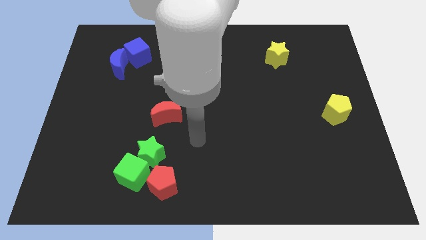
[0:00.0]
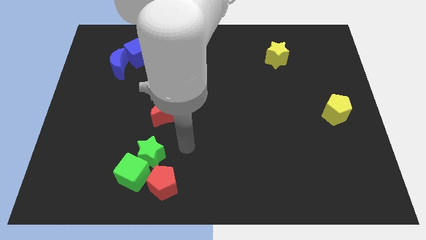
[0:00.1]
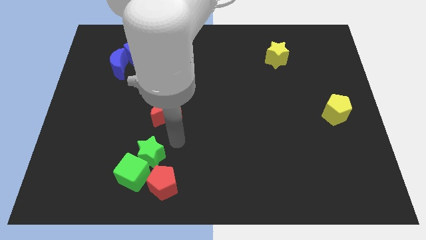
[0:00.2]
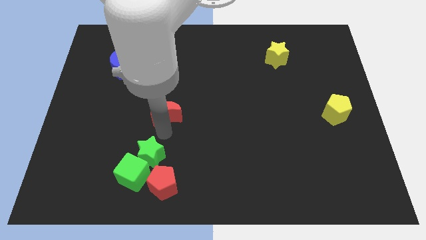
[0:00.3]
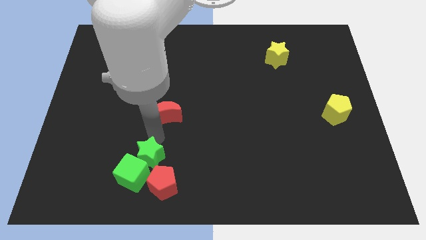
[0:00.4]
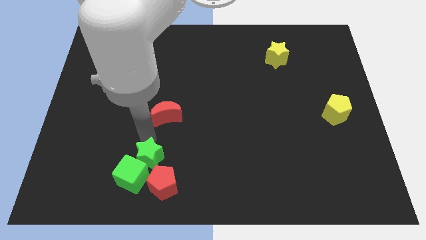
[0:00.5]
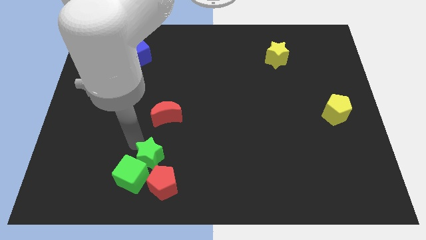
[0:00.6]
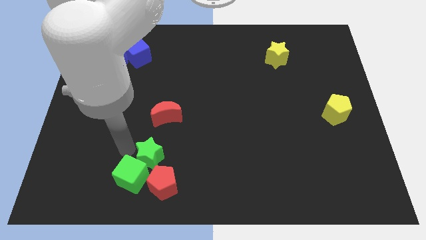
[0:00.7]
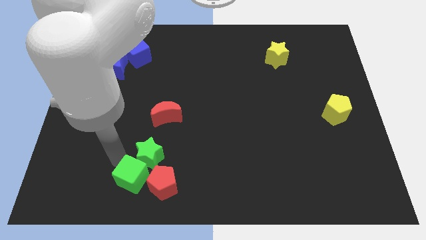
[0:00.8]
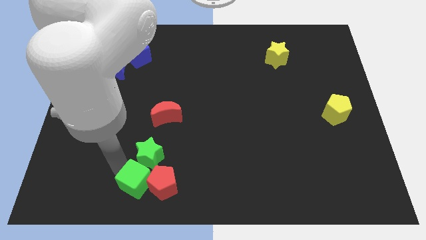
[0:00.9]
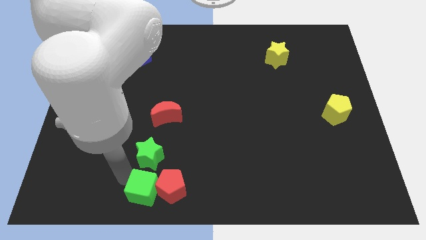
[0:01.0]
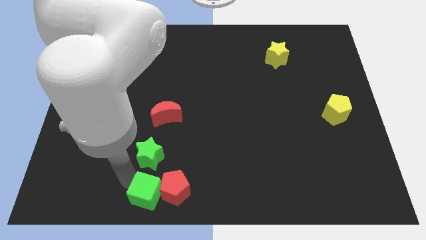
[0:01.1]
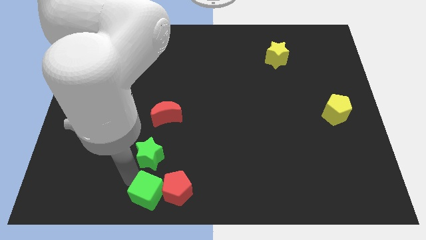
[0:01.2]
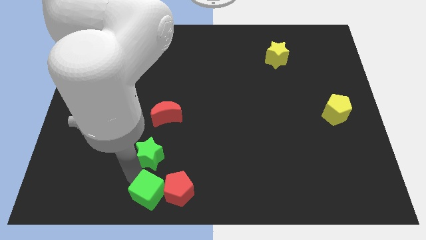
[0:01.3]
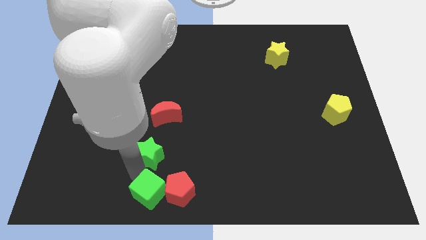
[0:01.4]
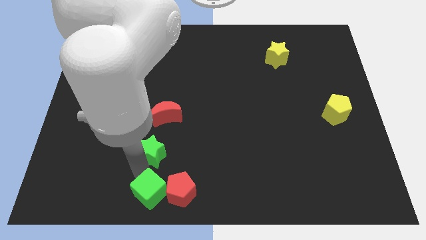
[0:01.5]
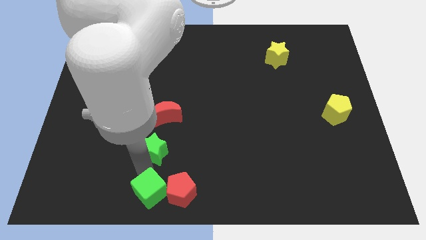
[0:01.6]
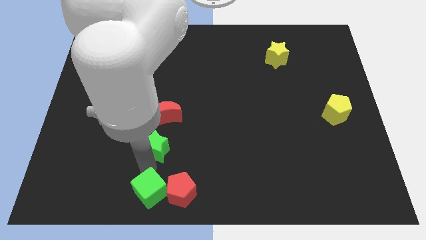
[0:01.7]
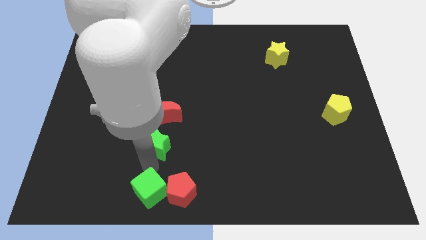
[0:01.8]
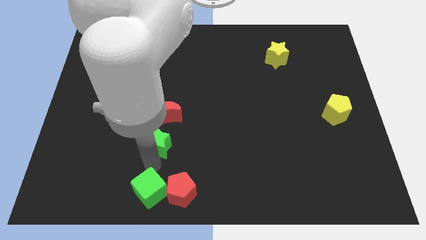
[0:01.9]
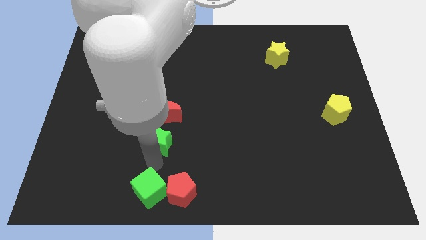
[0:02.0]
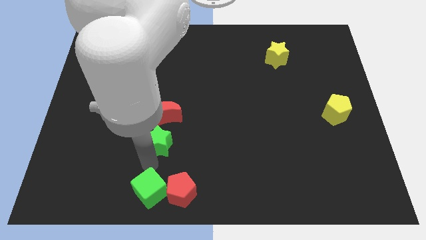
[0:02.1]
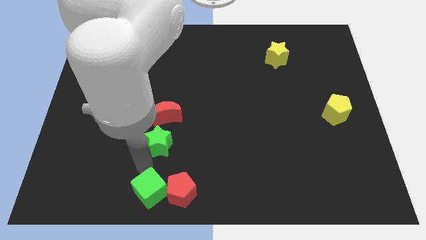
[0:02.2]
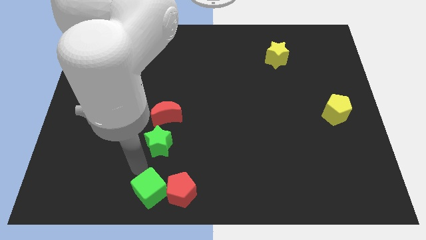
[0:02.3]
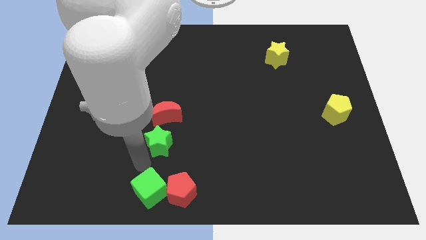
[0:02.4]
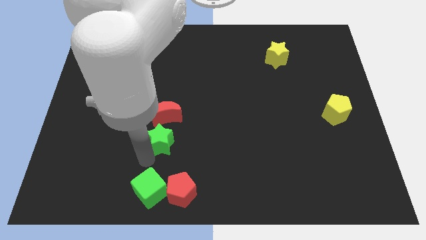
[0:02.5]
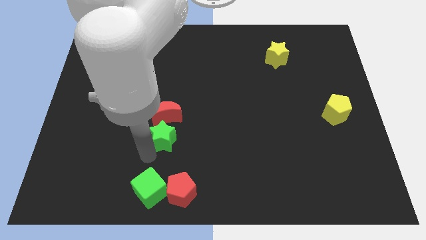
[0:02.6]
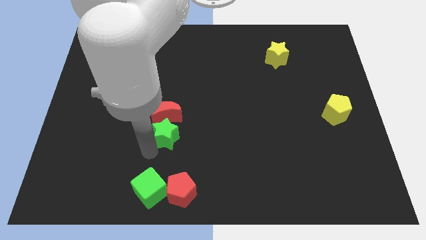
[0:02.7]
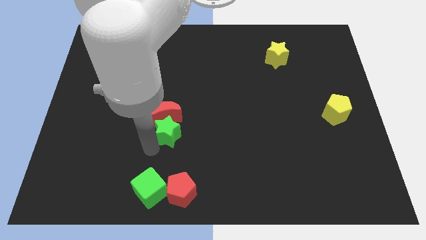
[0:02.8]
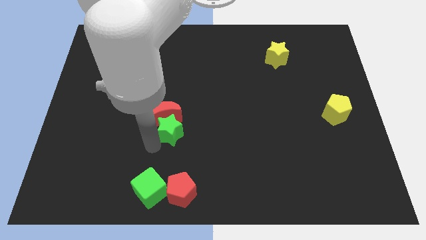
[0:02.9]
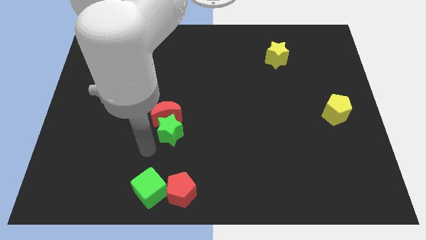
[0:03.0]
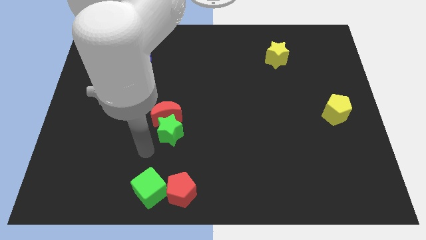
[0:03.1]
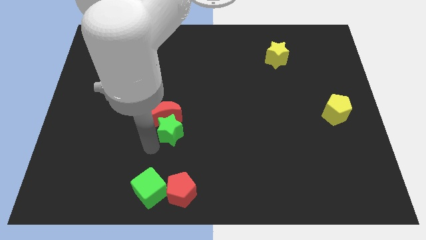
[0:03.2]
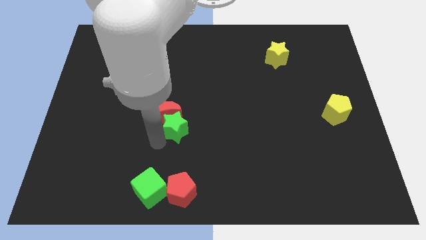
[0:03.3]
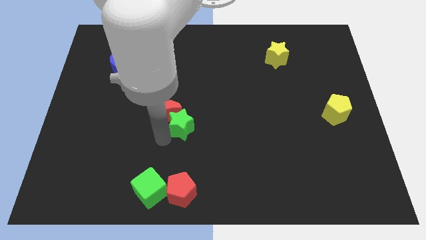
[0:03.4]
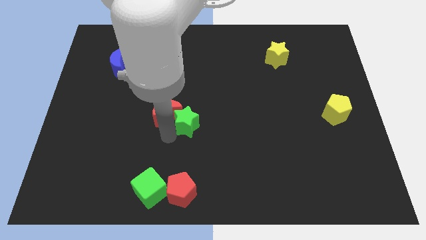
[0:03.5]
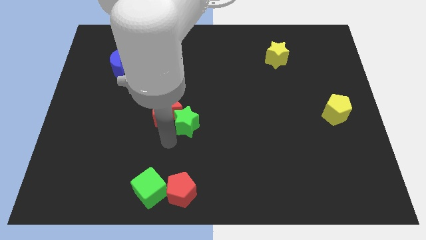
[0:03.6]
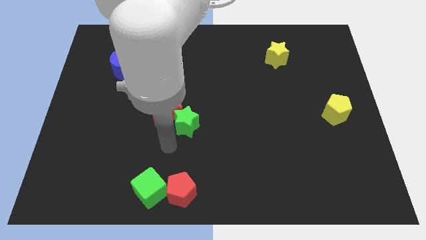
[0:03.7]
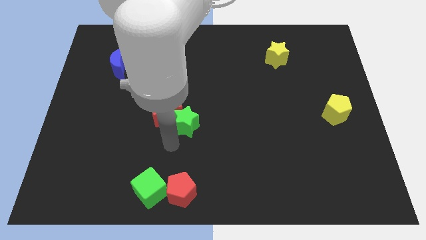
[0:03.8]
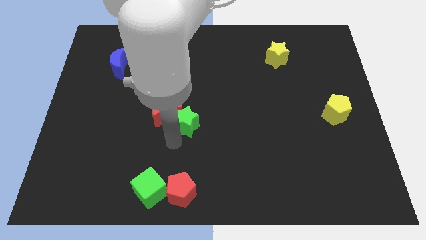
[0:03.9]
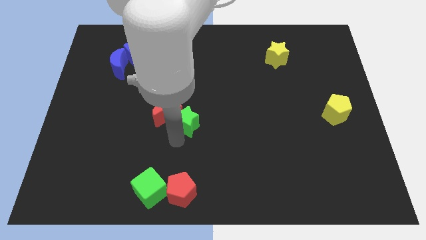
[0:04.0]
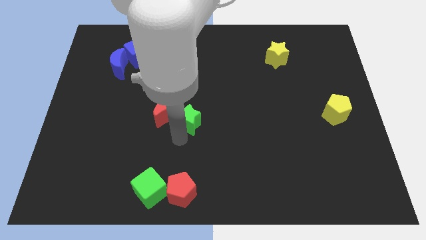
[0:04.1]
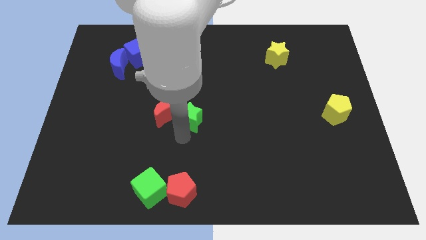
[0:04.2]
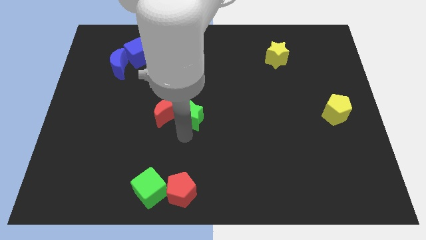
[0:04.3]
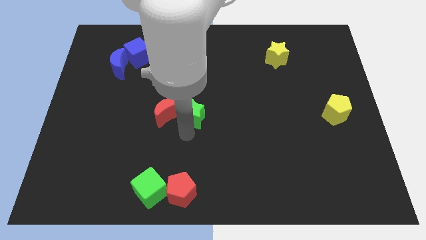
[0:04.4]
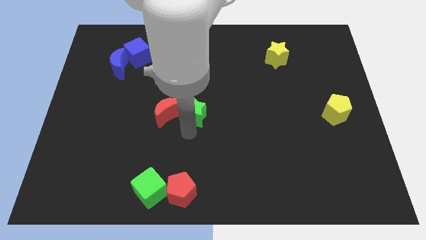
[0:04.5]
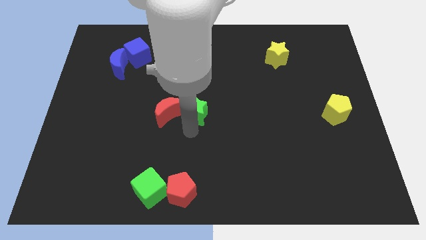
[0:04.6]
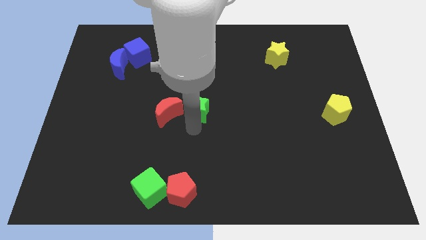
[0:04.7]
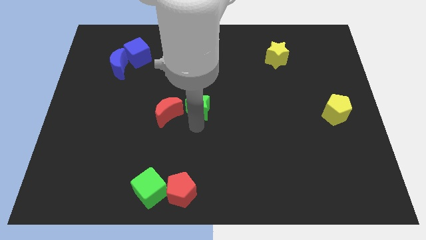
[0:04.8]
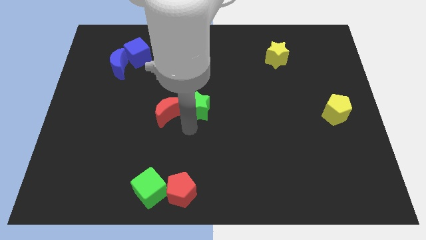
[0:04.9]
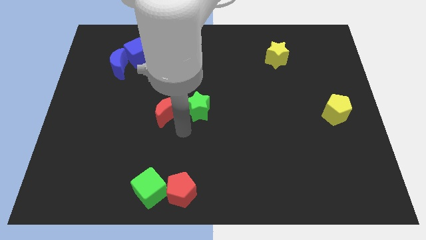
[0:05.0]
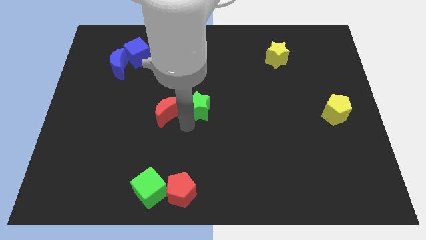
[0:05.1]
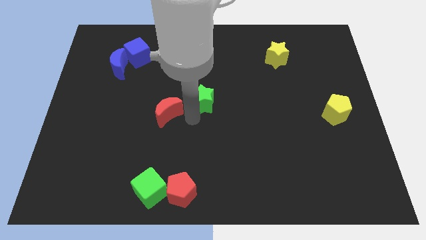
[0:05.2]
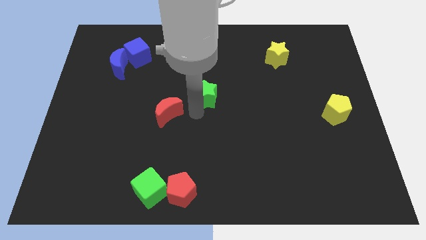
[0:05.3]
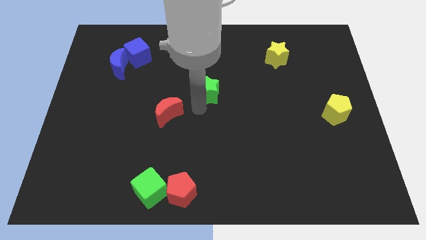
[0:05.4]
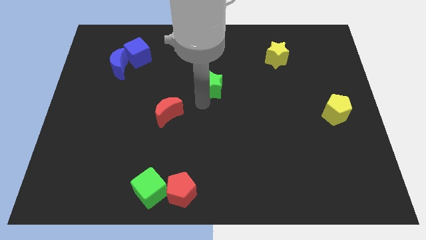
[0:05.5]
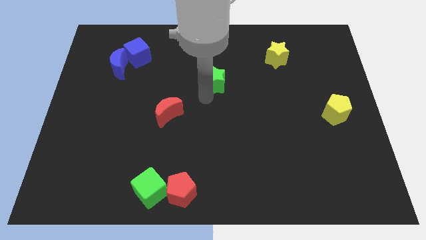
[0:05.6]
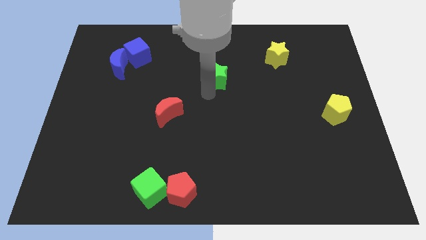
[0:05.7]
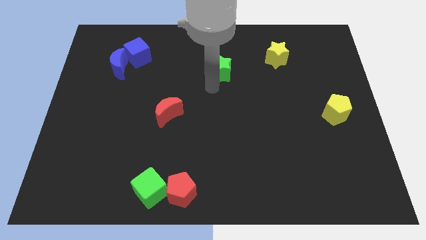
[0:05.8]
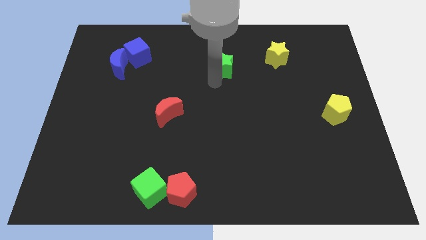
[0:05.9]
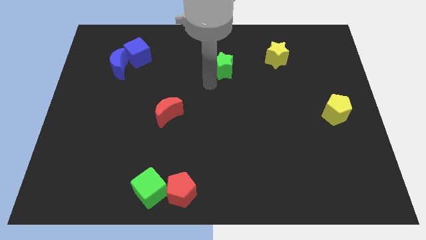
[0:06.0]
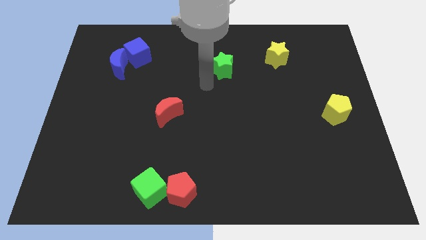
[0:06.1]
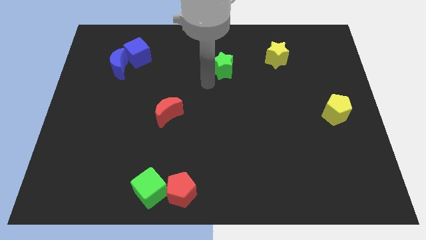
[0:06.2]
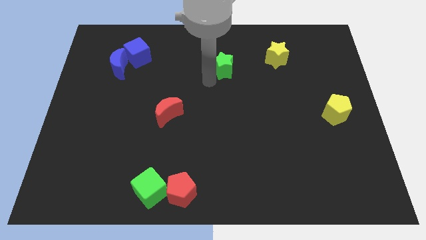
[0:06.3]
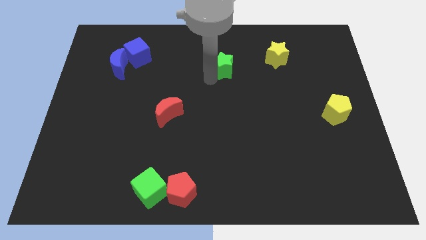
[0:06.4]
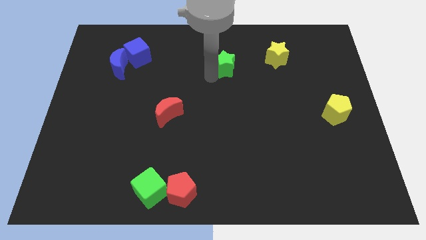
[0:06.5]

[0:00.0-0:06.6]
slide the green star left of the yellow star

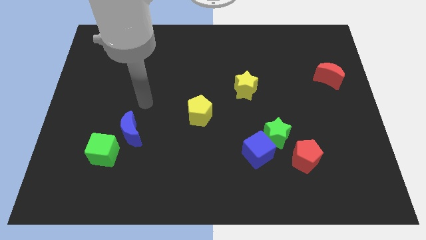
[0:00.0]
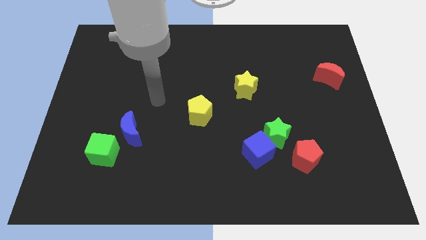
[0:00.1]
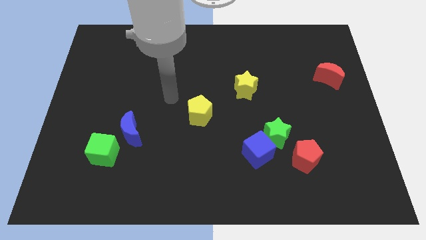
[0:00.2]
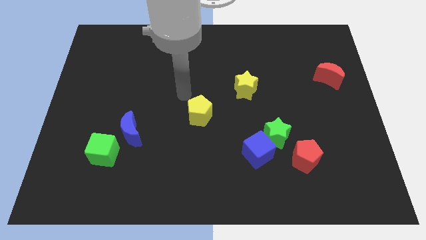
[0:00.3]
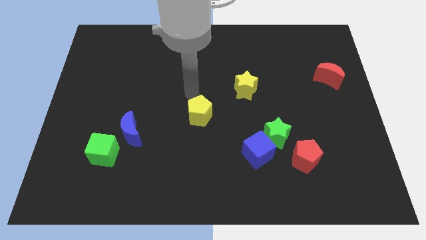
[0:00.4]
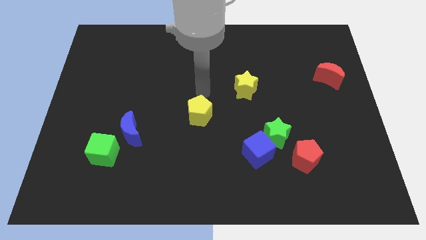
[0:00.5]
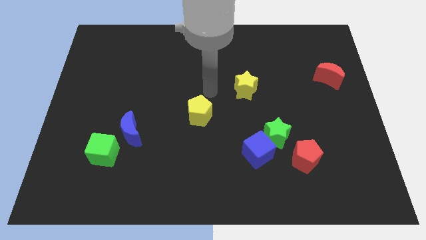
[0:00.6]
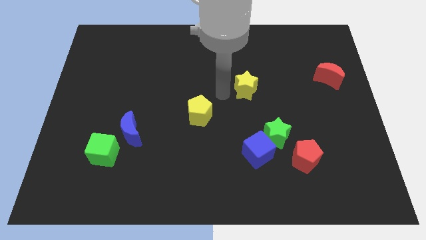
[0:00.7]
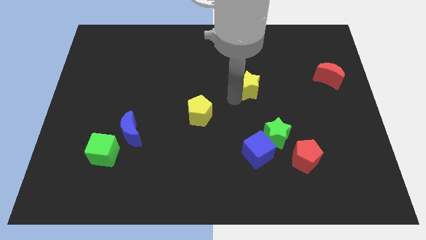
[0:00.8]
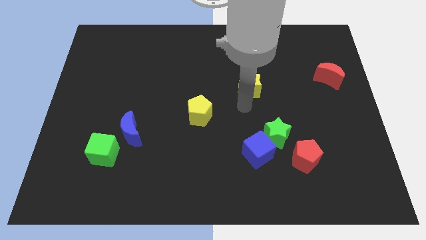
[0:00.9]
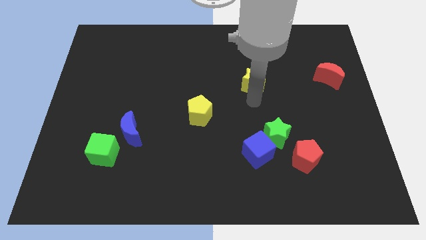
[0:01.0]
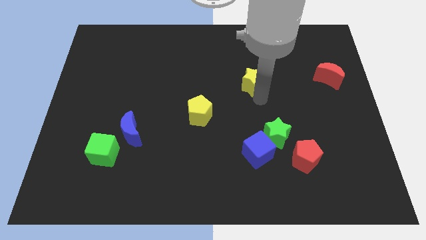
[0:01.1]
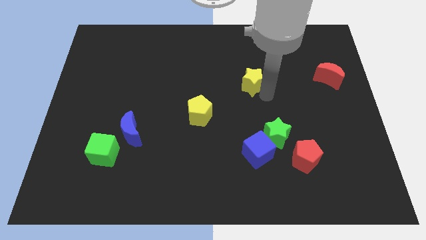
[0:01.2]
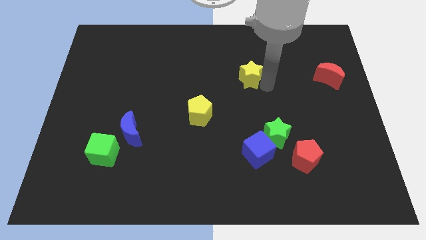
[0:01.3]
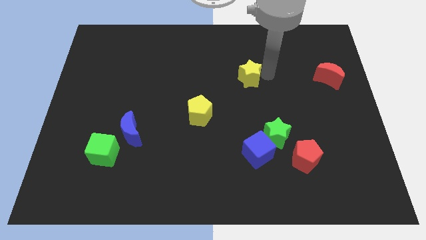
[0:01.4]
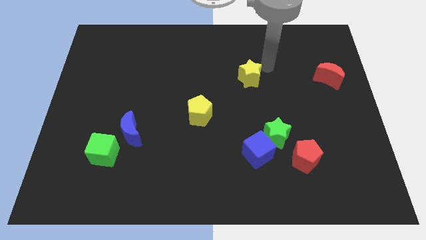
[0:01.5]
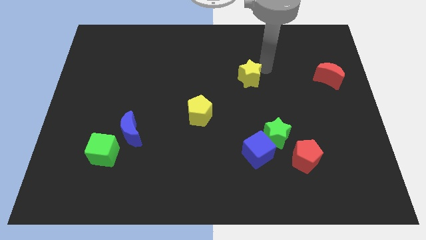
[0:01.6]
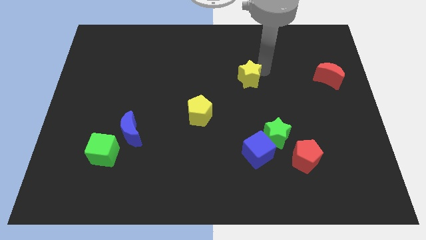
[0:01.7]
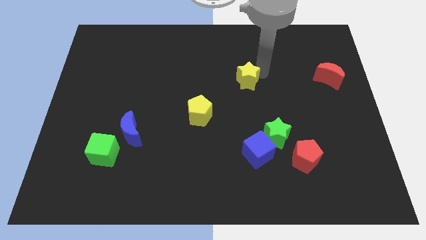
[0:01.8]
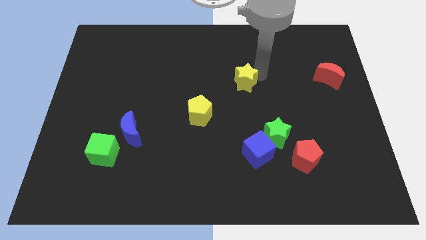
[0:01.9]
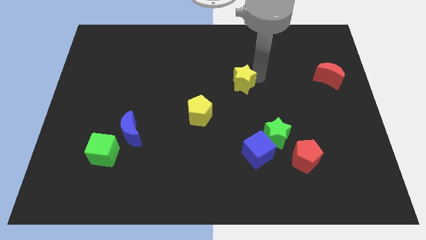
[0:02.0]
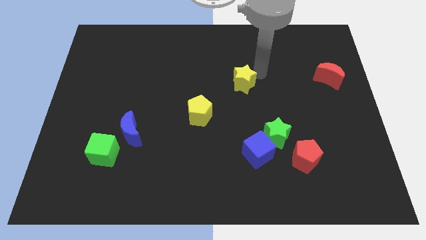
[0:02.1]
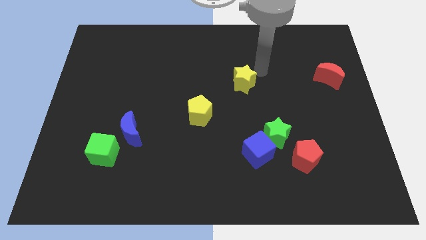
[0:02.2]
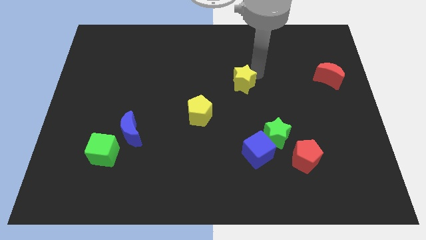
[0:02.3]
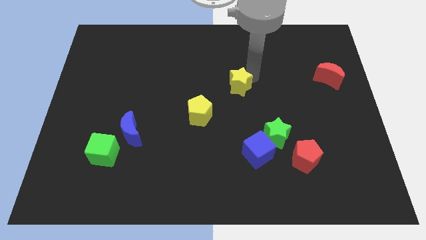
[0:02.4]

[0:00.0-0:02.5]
slide the yellow star to the top right side of the yellow pentagon
